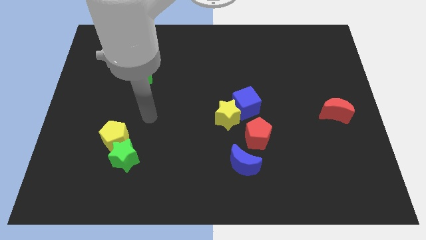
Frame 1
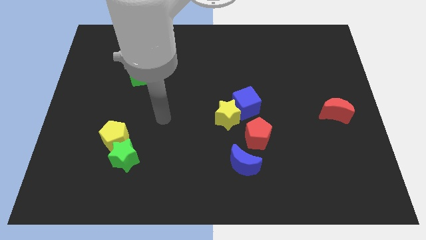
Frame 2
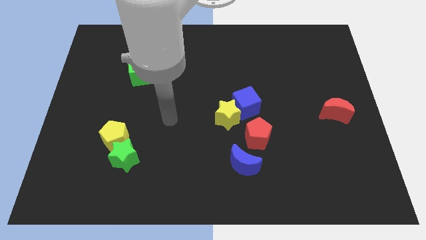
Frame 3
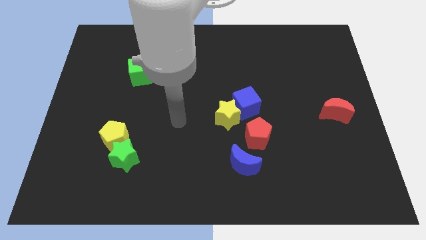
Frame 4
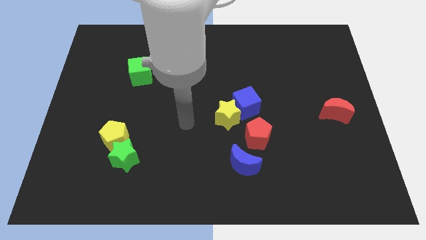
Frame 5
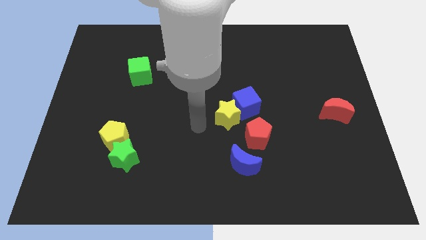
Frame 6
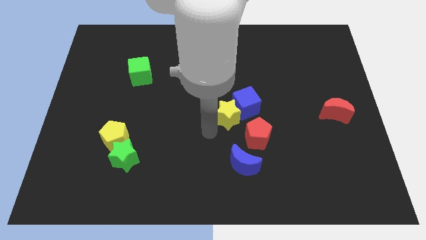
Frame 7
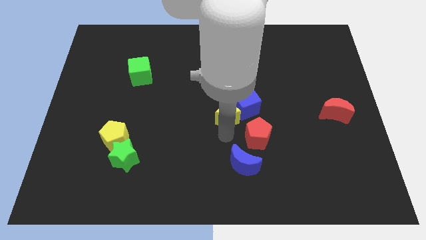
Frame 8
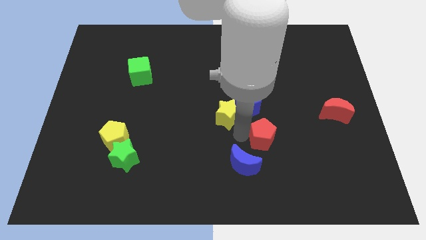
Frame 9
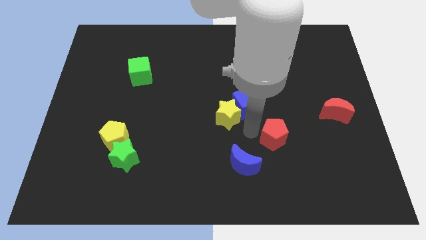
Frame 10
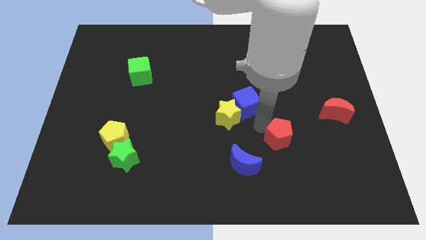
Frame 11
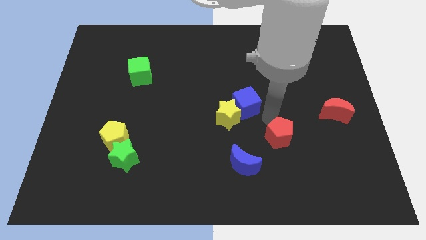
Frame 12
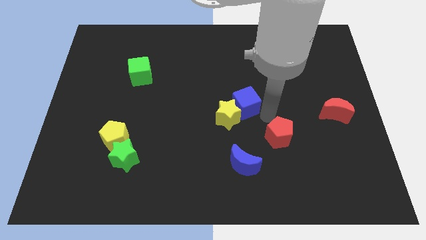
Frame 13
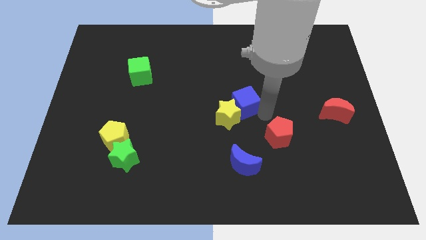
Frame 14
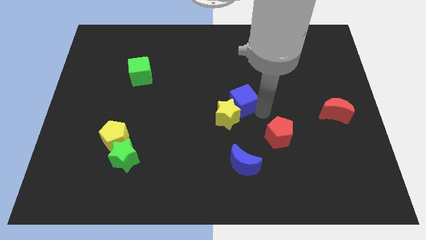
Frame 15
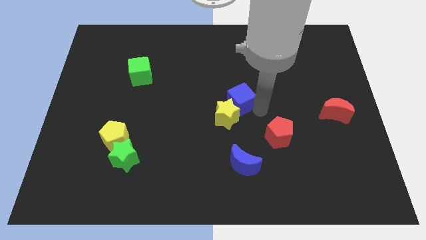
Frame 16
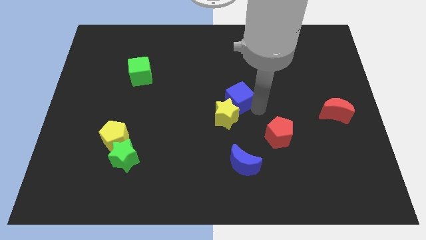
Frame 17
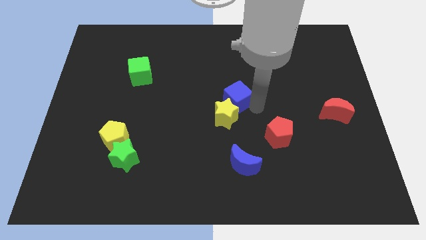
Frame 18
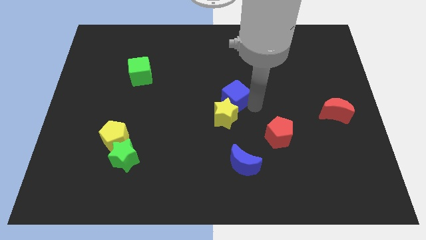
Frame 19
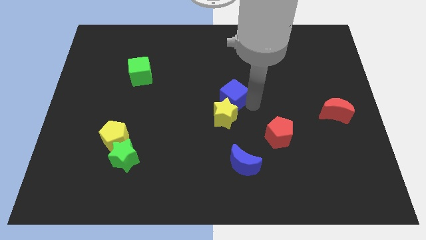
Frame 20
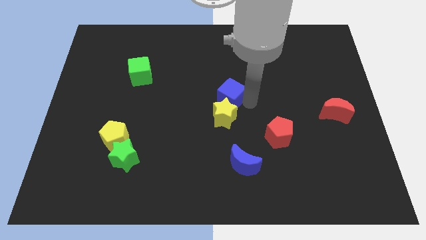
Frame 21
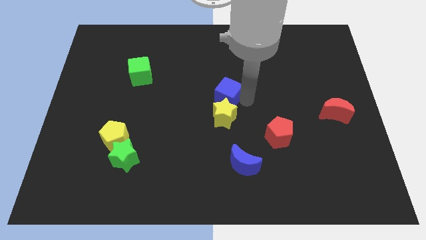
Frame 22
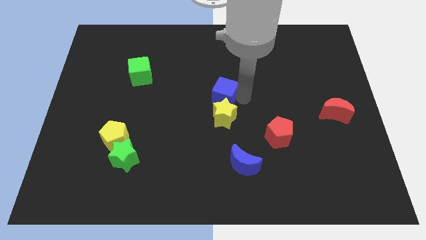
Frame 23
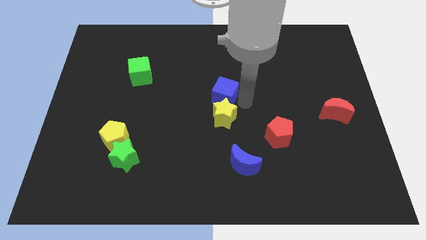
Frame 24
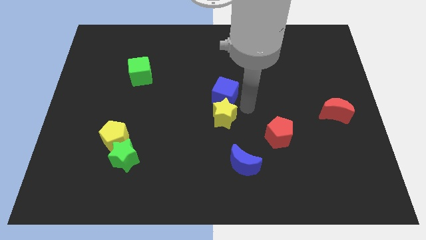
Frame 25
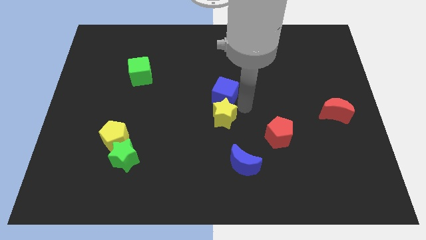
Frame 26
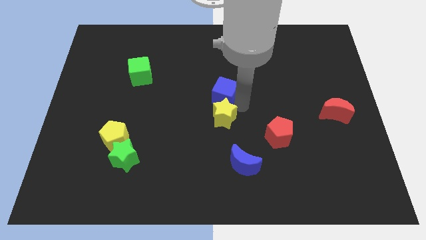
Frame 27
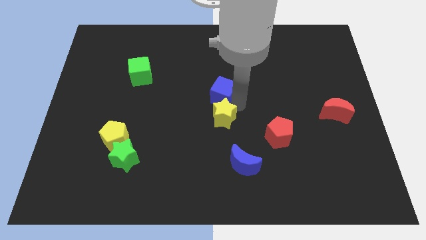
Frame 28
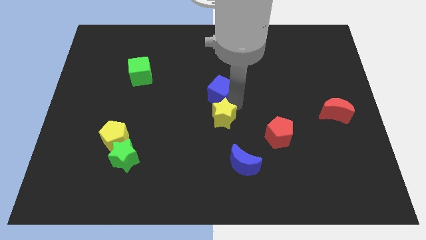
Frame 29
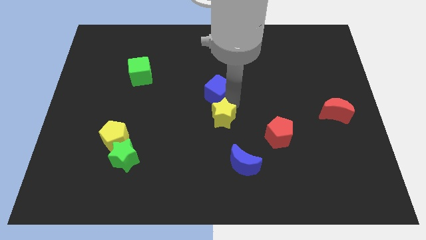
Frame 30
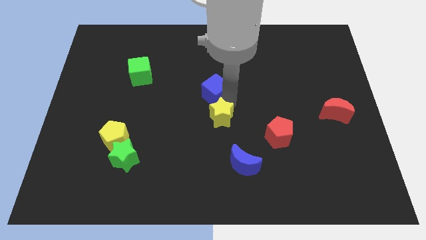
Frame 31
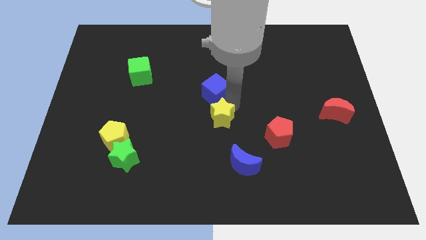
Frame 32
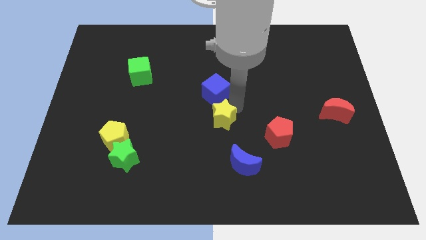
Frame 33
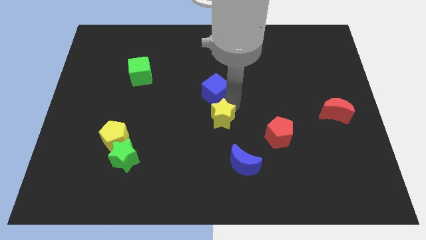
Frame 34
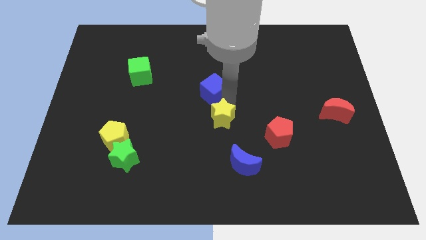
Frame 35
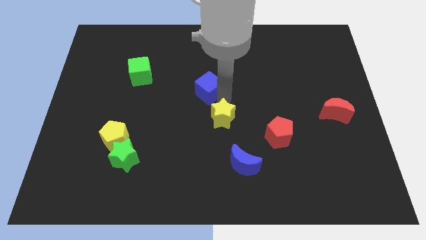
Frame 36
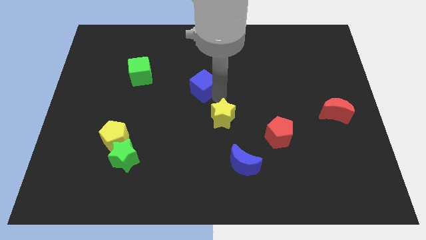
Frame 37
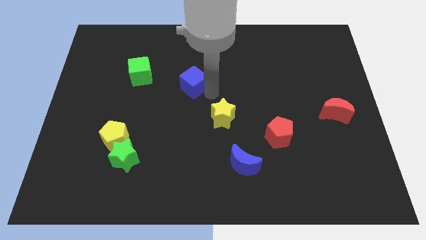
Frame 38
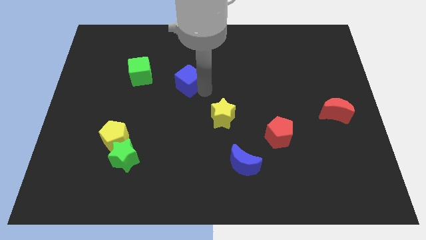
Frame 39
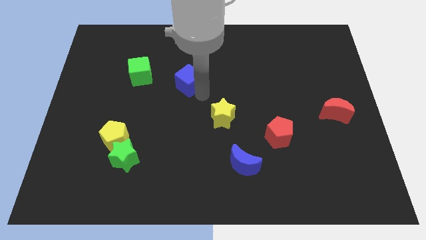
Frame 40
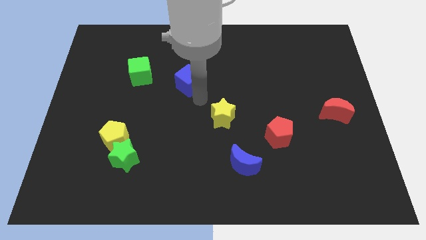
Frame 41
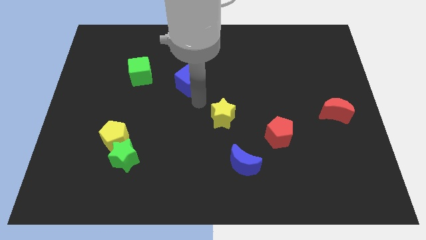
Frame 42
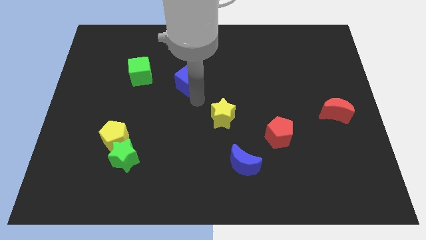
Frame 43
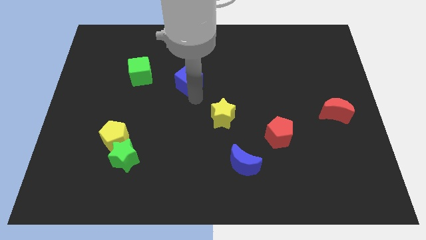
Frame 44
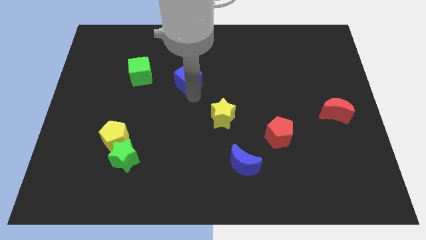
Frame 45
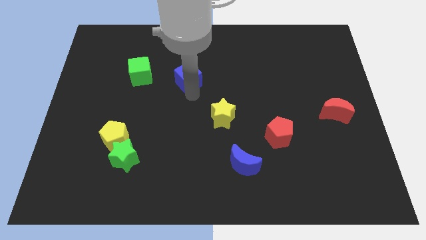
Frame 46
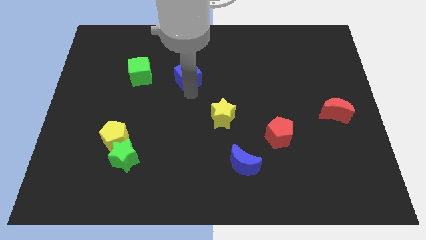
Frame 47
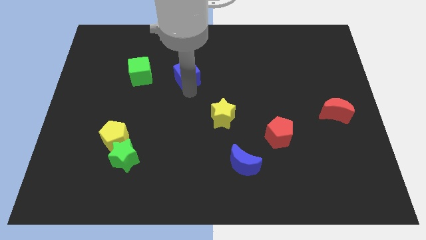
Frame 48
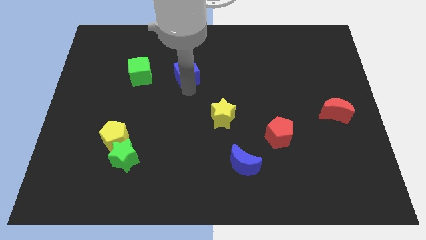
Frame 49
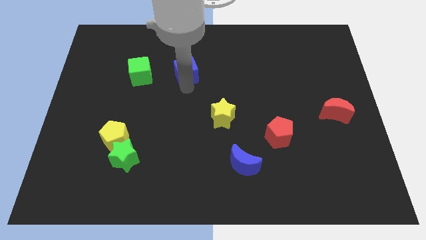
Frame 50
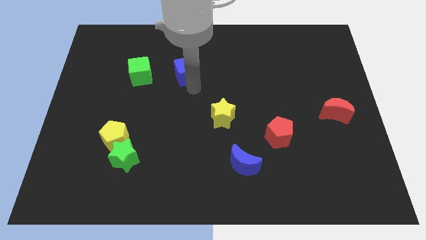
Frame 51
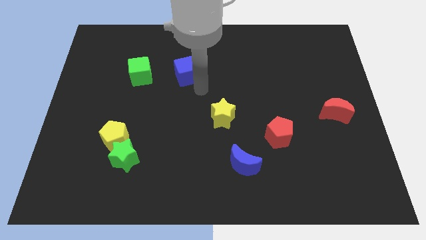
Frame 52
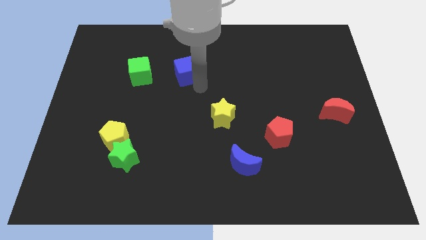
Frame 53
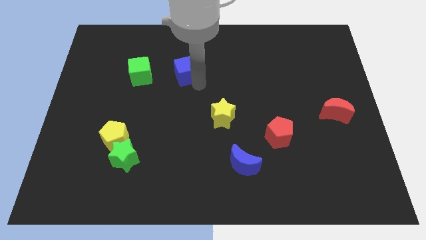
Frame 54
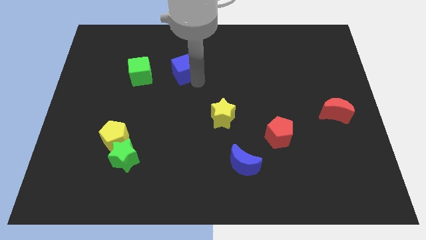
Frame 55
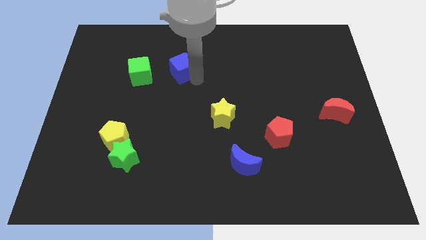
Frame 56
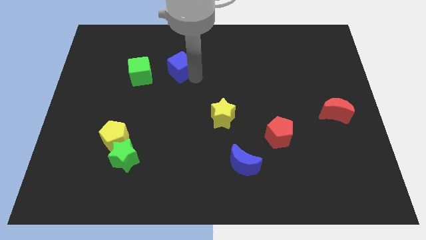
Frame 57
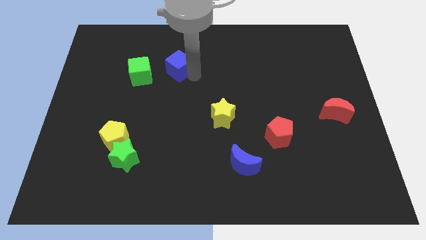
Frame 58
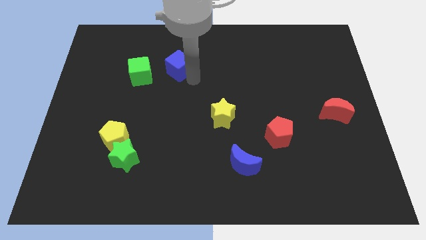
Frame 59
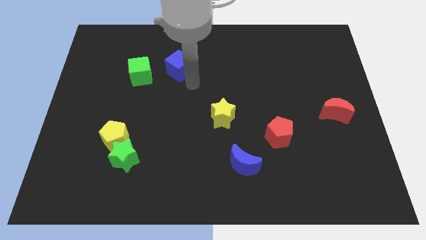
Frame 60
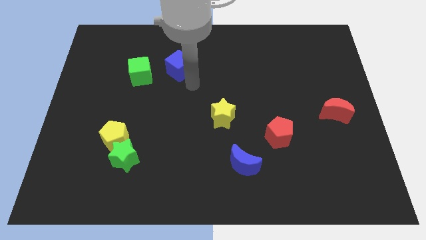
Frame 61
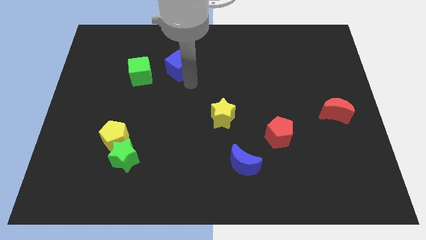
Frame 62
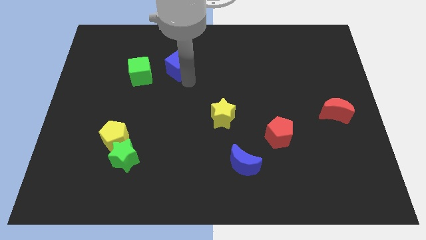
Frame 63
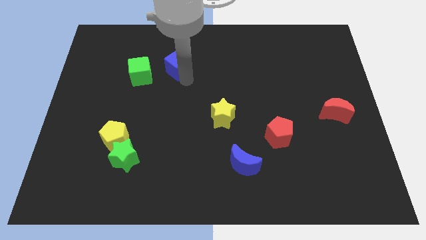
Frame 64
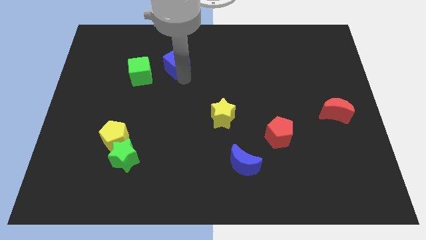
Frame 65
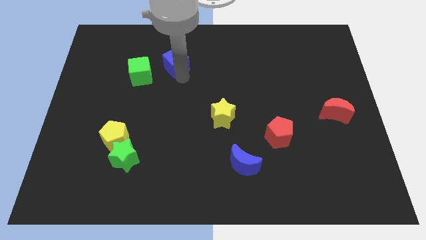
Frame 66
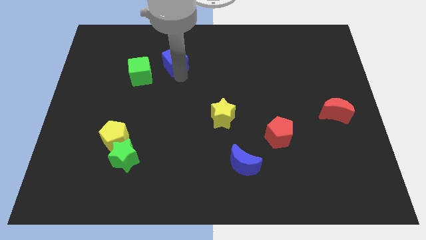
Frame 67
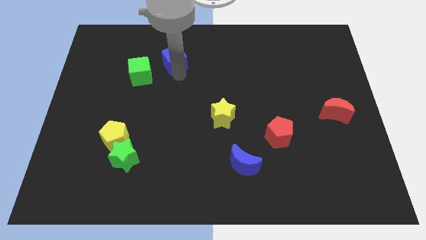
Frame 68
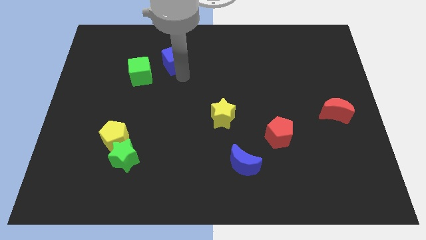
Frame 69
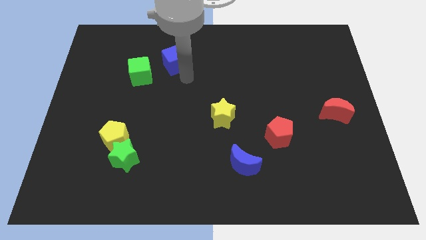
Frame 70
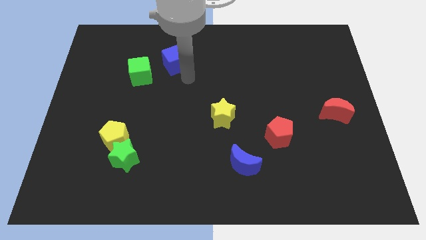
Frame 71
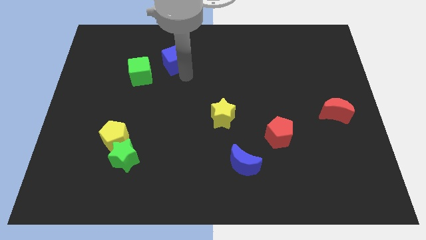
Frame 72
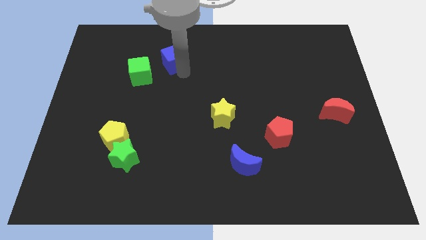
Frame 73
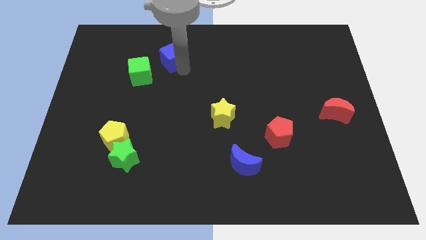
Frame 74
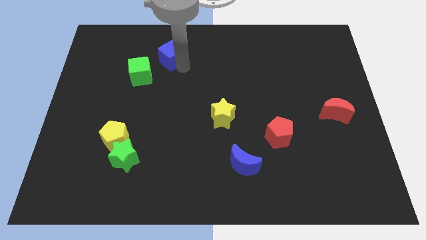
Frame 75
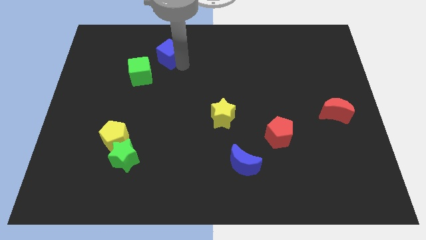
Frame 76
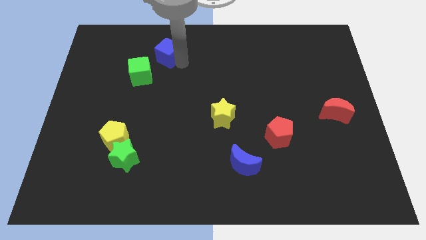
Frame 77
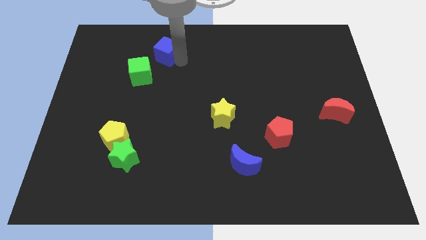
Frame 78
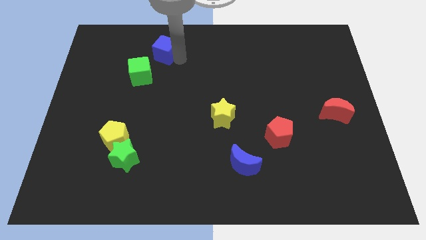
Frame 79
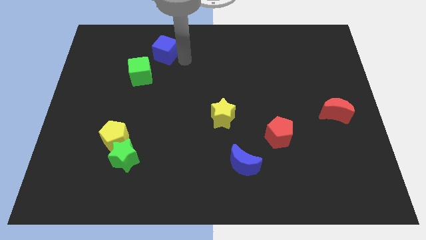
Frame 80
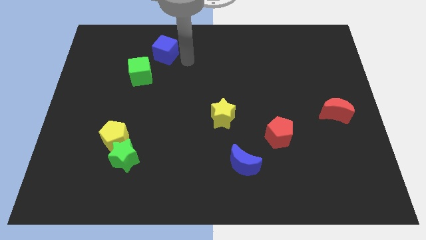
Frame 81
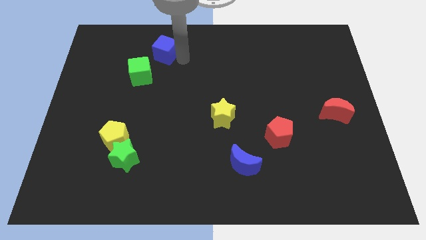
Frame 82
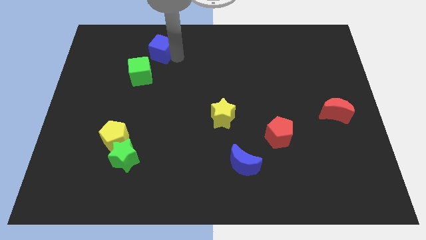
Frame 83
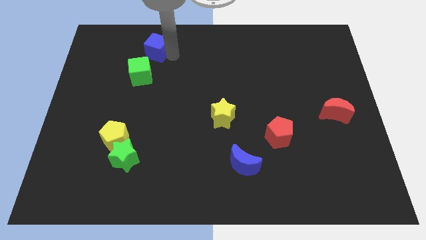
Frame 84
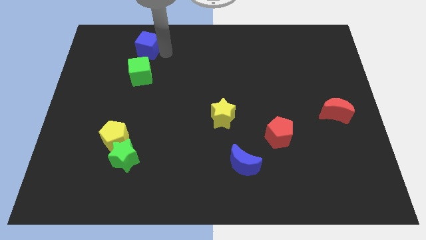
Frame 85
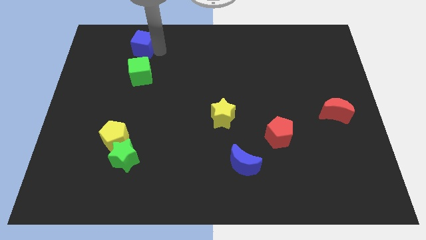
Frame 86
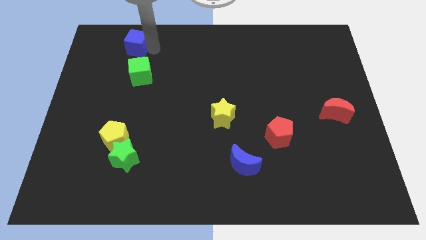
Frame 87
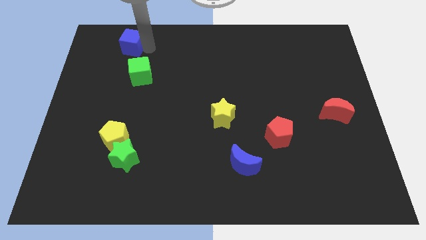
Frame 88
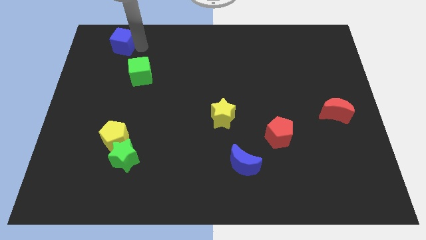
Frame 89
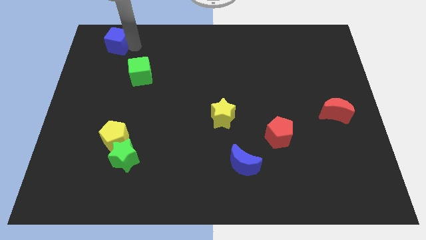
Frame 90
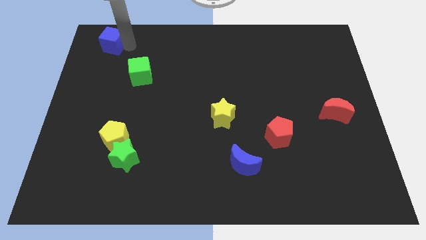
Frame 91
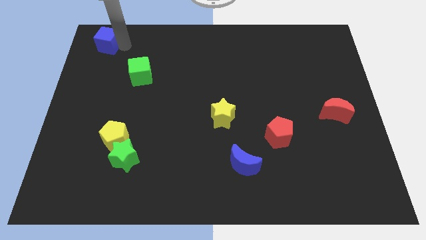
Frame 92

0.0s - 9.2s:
put the blue cube to the upper left corner
